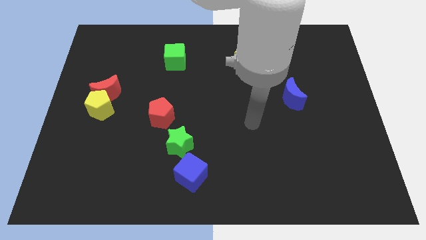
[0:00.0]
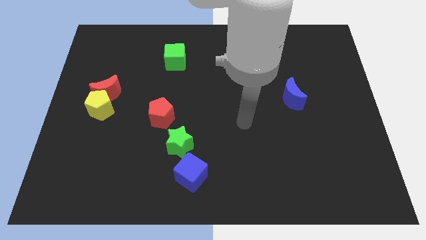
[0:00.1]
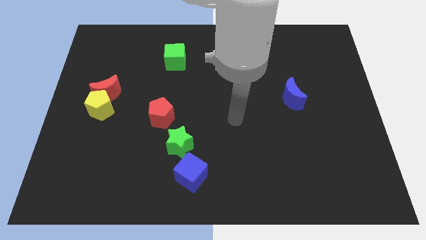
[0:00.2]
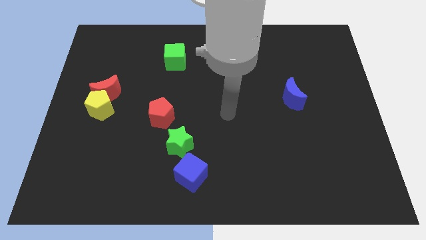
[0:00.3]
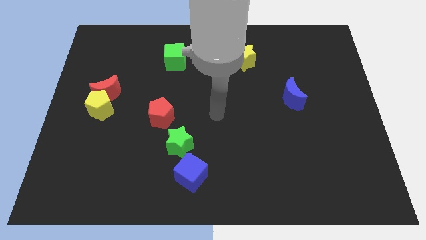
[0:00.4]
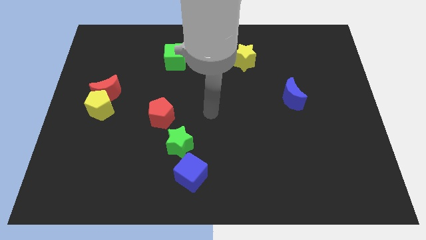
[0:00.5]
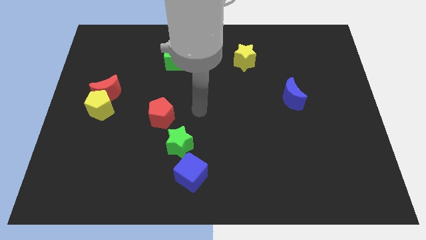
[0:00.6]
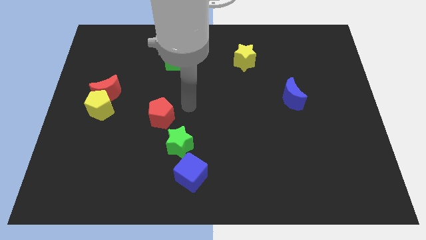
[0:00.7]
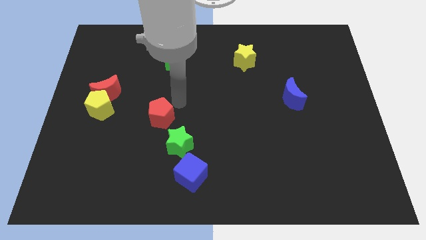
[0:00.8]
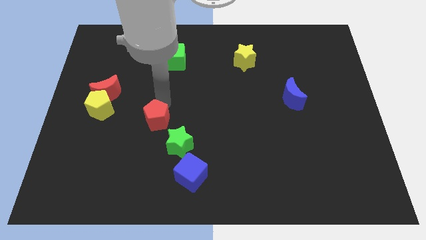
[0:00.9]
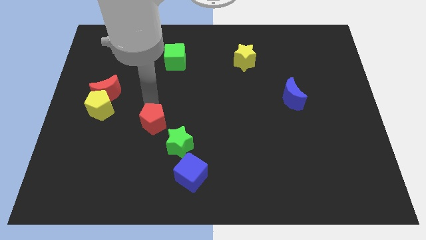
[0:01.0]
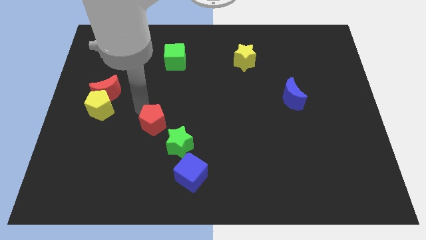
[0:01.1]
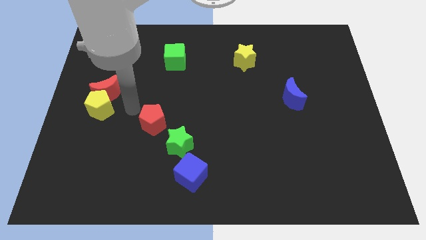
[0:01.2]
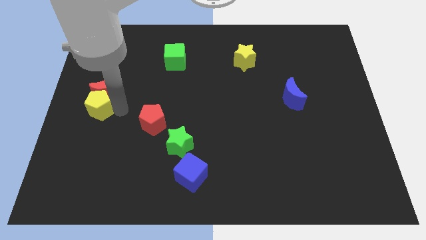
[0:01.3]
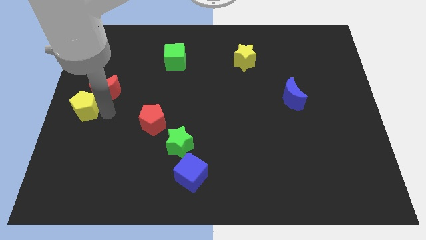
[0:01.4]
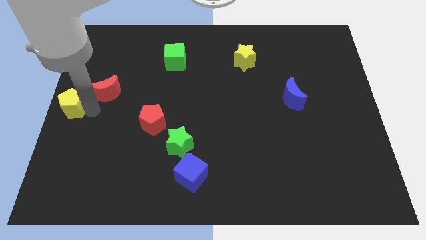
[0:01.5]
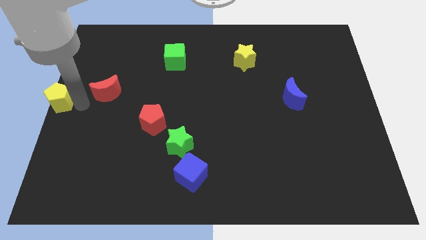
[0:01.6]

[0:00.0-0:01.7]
separate the red moon from the yellow pentagon

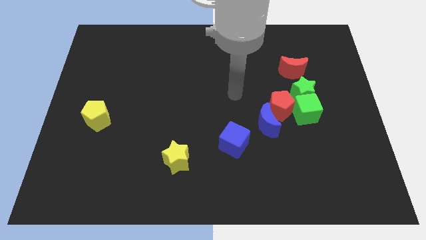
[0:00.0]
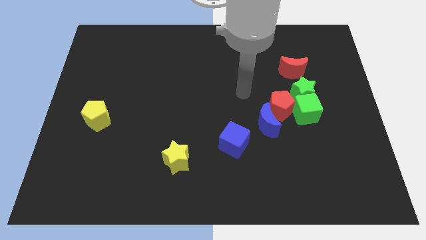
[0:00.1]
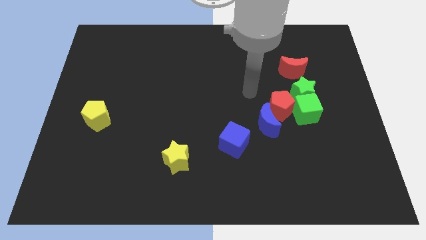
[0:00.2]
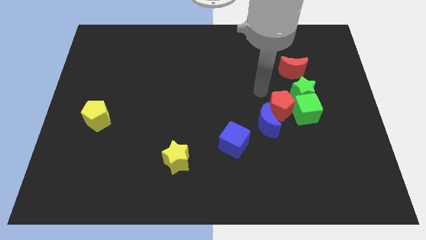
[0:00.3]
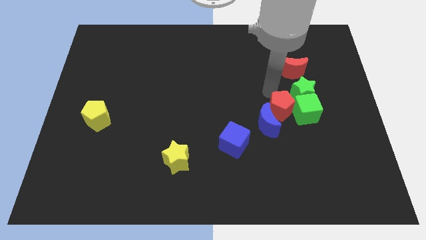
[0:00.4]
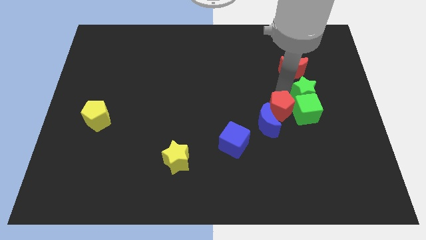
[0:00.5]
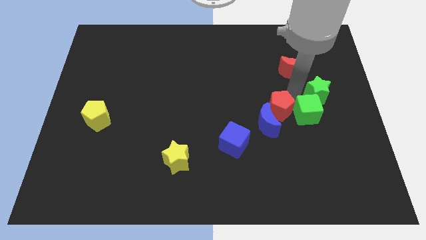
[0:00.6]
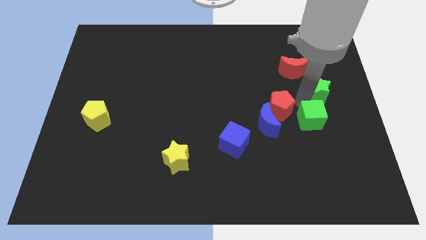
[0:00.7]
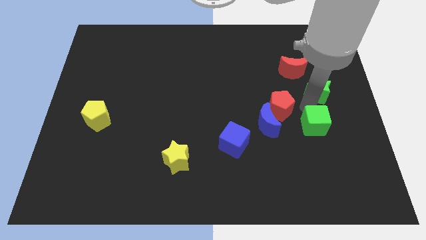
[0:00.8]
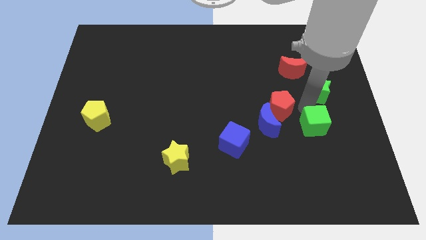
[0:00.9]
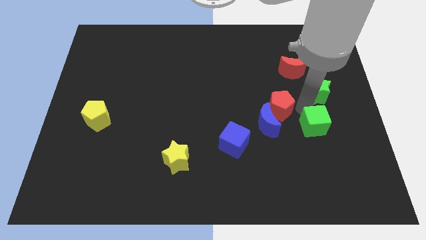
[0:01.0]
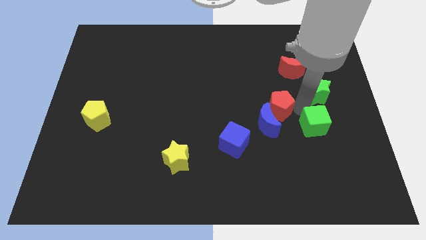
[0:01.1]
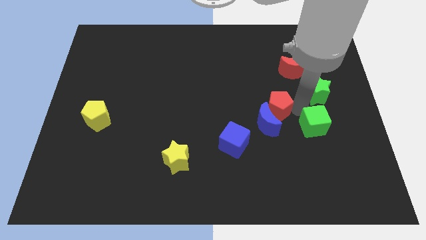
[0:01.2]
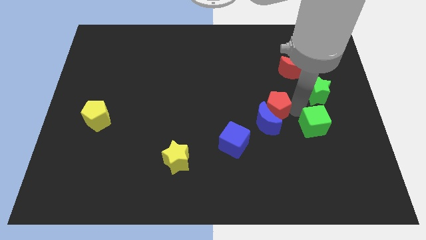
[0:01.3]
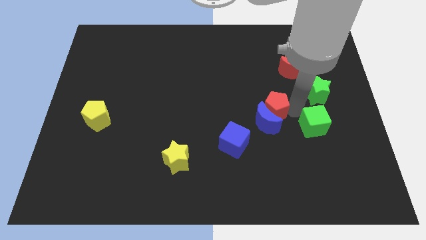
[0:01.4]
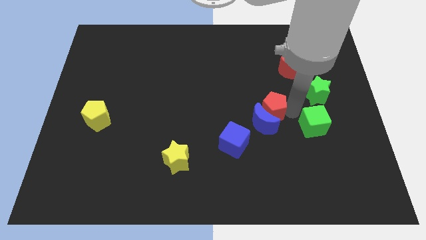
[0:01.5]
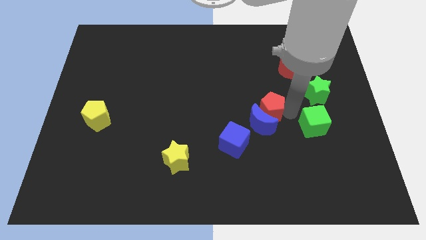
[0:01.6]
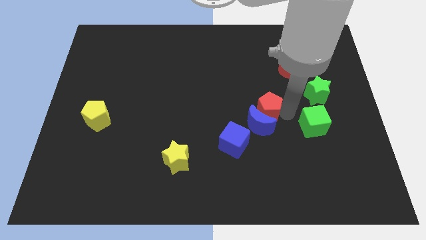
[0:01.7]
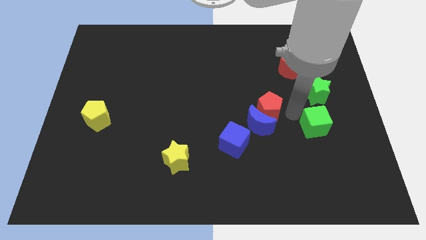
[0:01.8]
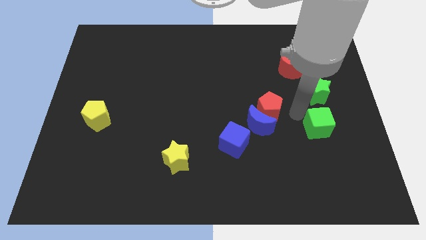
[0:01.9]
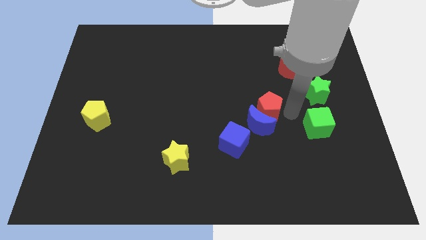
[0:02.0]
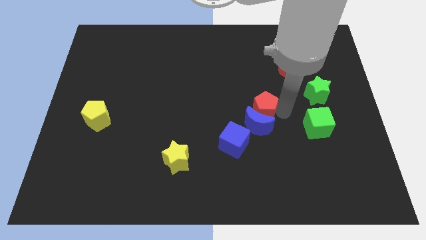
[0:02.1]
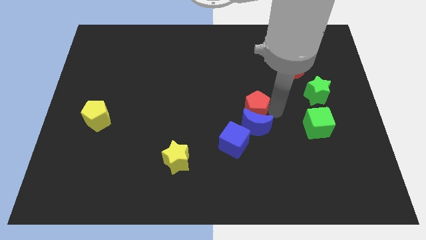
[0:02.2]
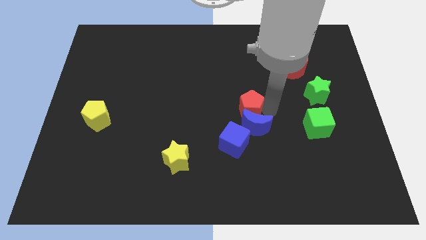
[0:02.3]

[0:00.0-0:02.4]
move the red pentagon away from the group of blocks

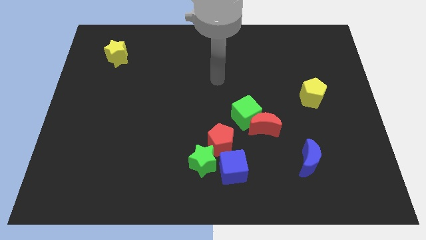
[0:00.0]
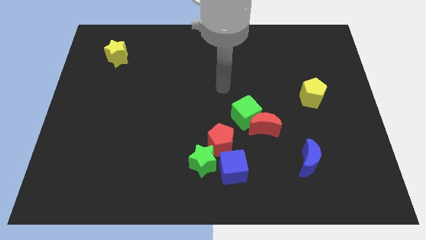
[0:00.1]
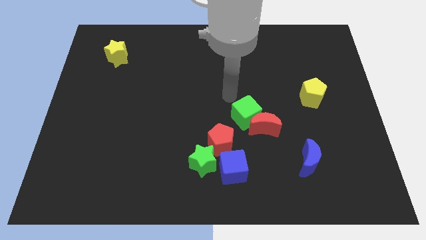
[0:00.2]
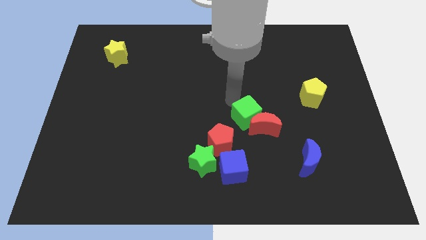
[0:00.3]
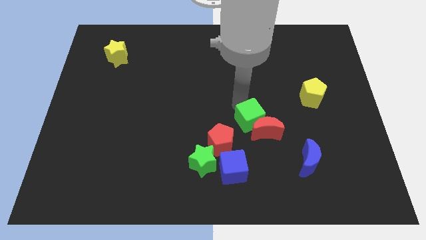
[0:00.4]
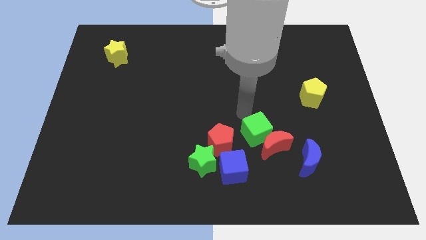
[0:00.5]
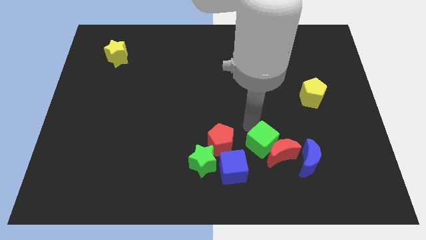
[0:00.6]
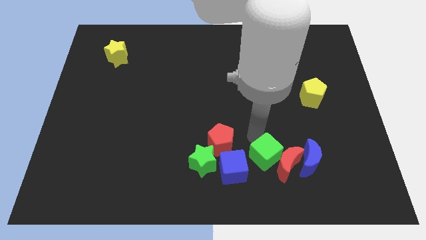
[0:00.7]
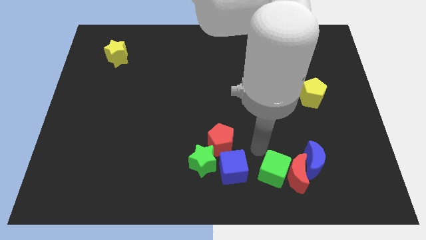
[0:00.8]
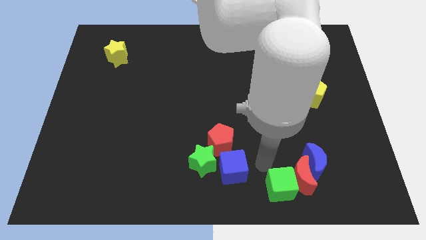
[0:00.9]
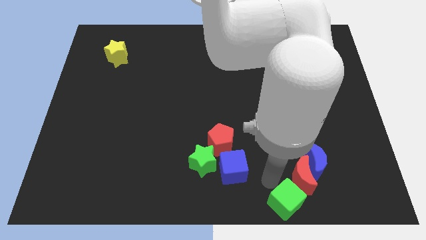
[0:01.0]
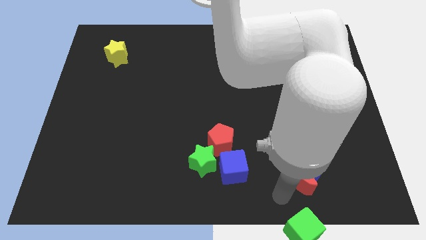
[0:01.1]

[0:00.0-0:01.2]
move the red moon away from the green cube

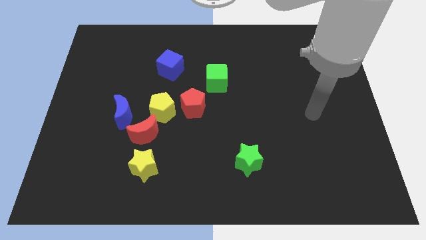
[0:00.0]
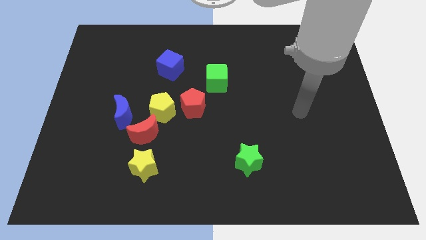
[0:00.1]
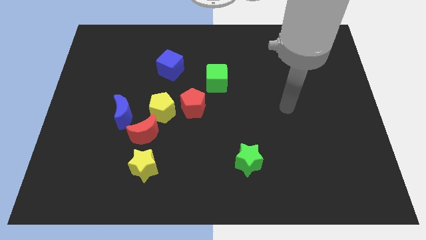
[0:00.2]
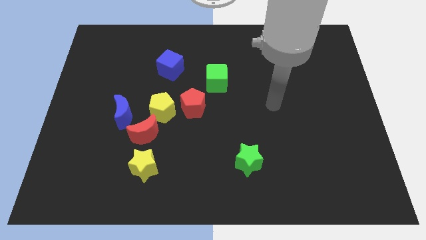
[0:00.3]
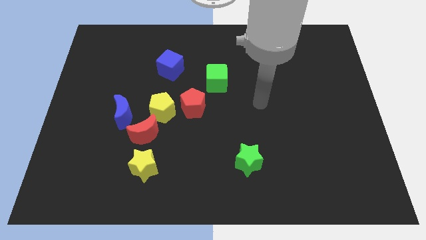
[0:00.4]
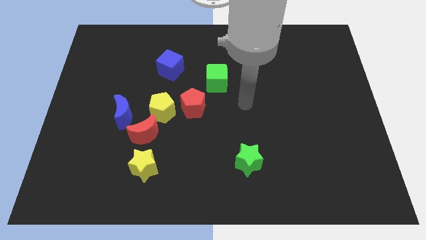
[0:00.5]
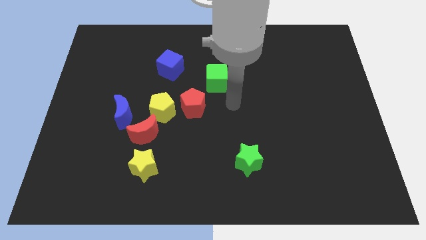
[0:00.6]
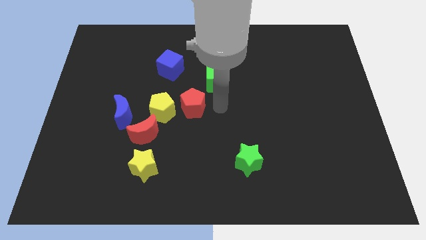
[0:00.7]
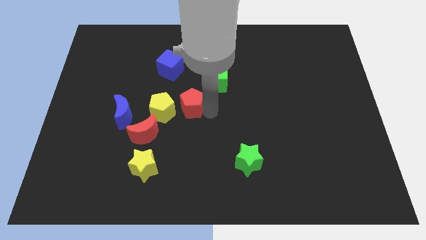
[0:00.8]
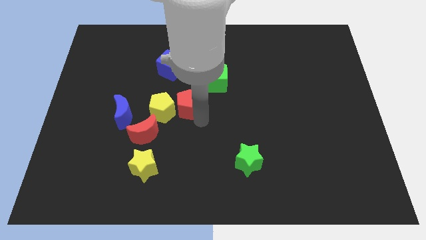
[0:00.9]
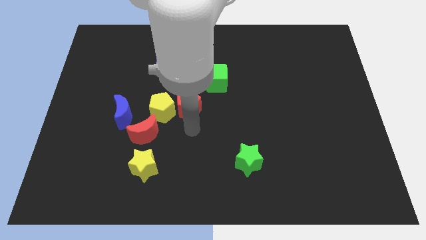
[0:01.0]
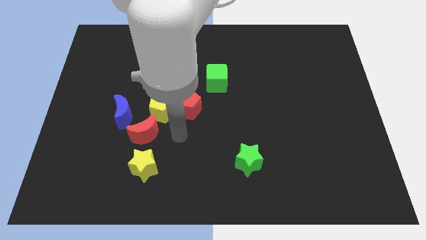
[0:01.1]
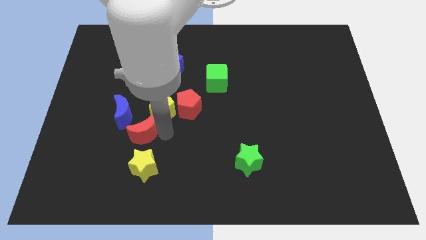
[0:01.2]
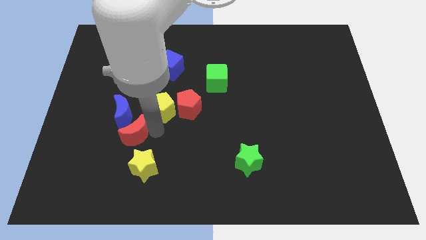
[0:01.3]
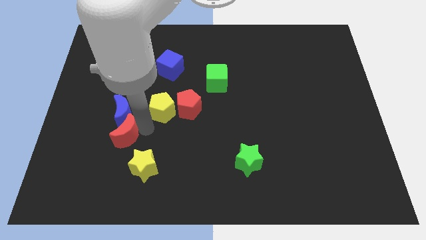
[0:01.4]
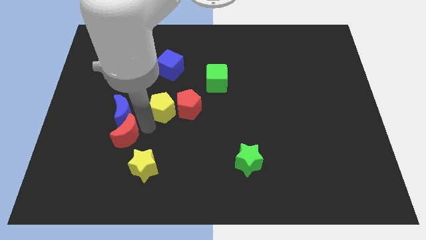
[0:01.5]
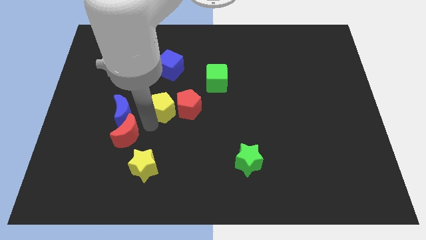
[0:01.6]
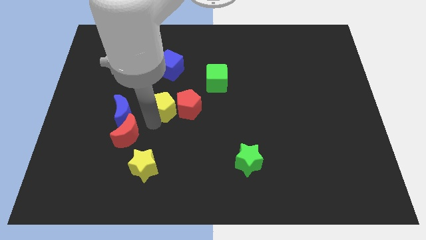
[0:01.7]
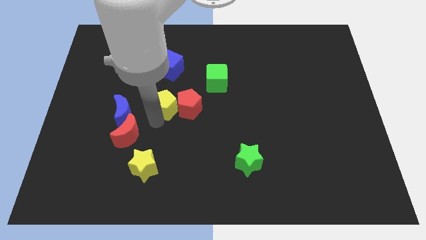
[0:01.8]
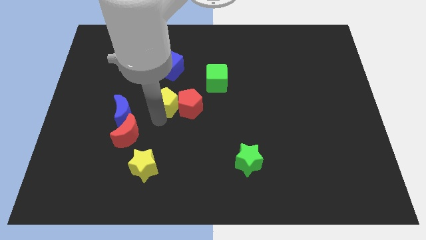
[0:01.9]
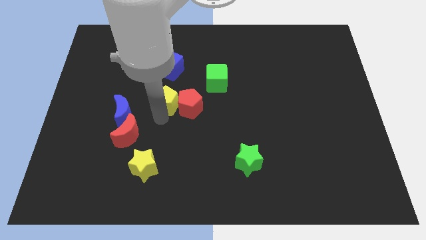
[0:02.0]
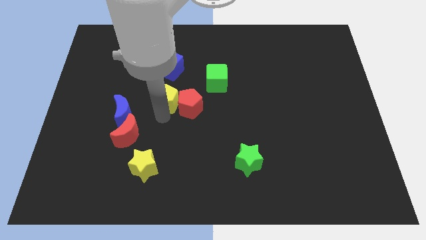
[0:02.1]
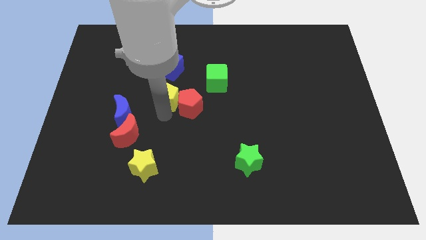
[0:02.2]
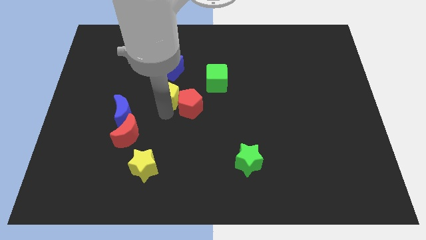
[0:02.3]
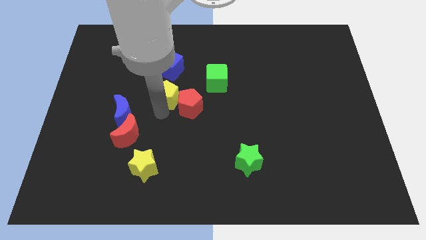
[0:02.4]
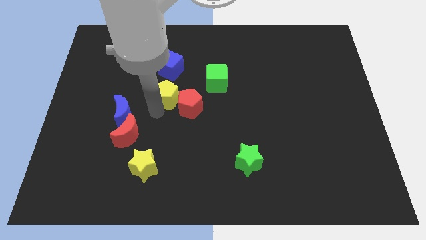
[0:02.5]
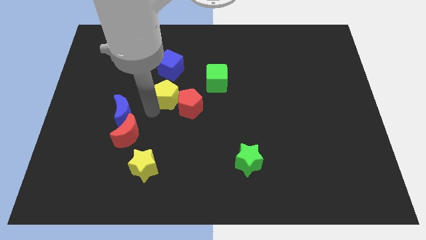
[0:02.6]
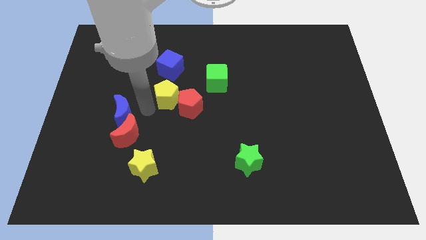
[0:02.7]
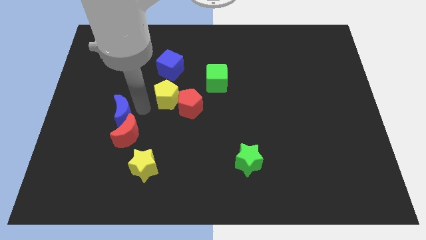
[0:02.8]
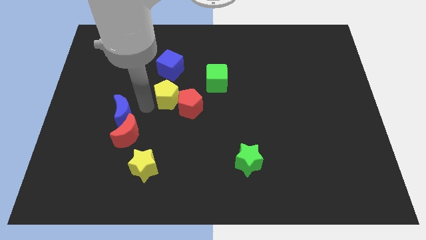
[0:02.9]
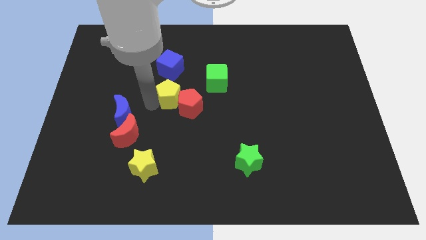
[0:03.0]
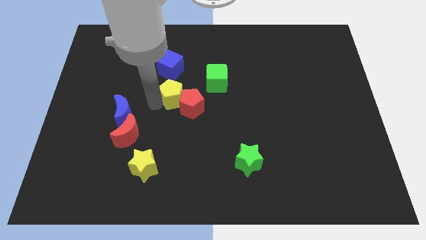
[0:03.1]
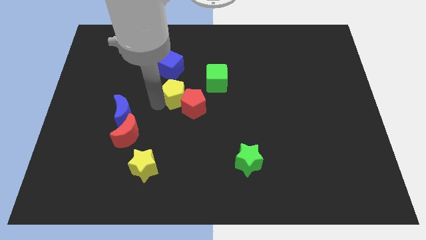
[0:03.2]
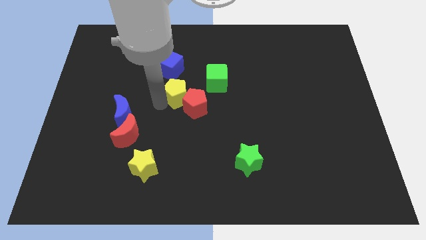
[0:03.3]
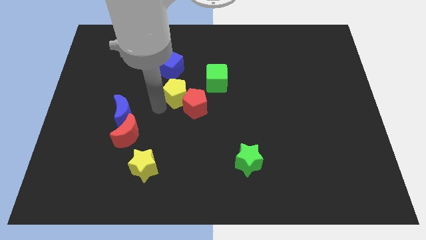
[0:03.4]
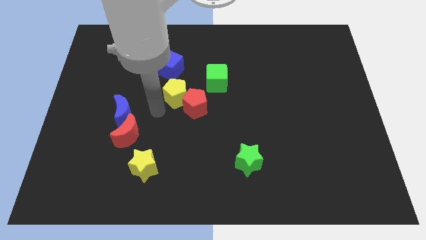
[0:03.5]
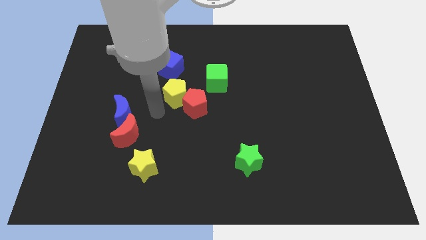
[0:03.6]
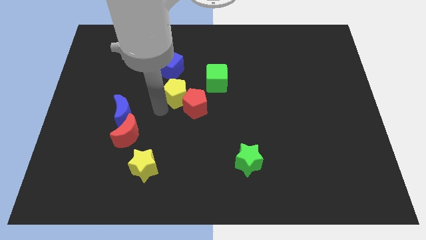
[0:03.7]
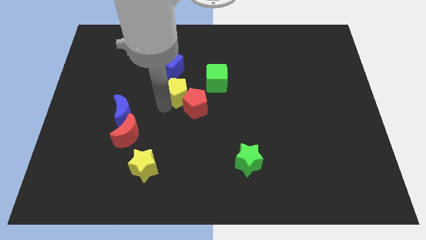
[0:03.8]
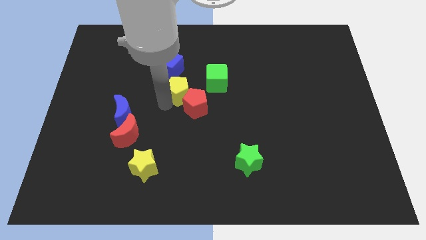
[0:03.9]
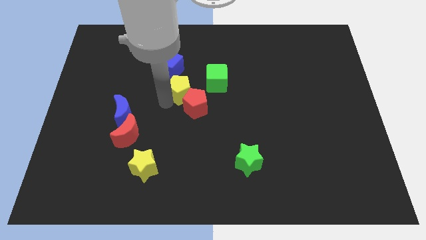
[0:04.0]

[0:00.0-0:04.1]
move the yellow pentagon away from the clump
